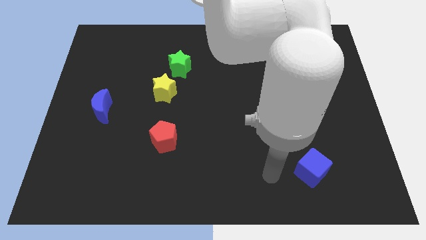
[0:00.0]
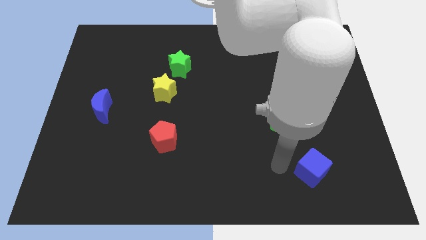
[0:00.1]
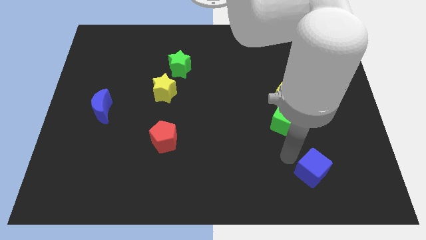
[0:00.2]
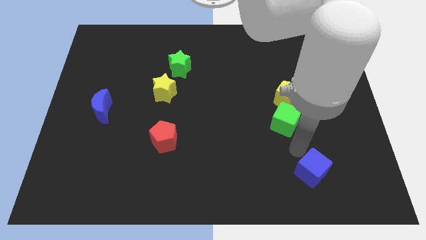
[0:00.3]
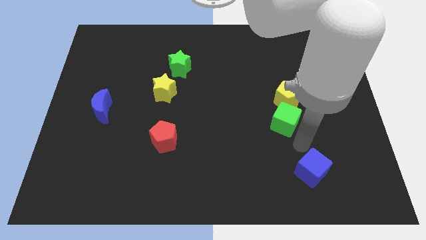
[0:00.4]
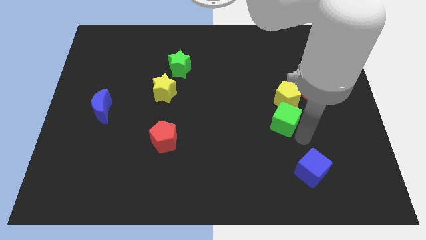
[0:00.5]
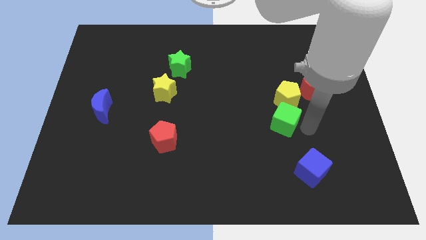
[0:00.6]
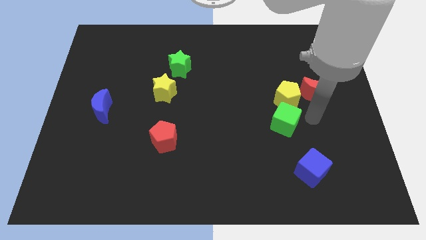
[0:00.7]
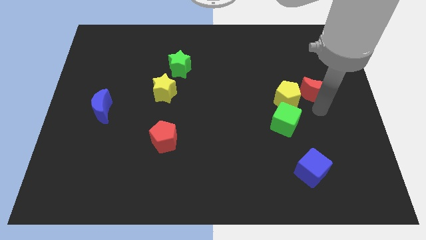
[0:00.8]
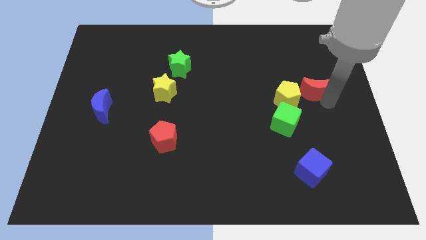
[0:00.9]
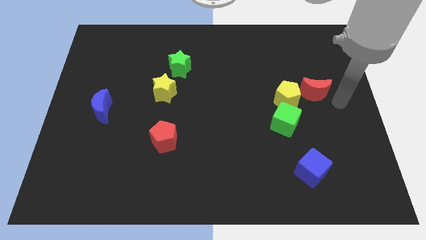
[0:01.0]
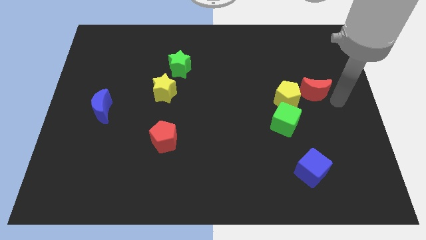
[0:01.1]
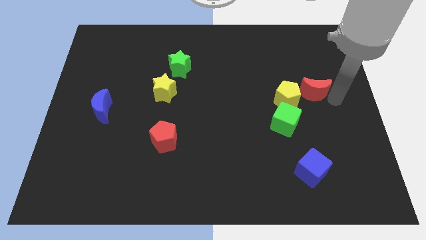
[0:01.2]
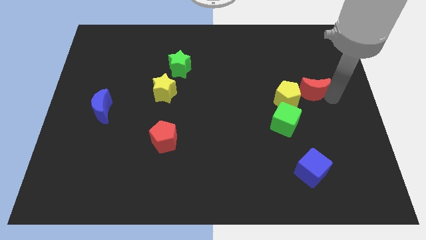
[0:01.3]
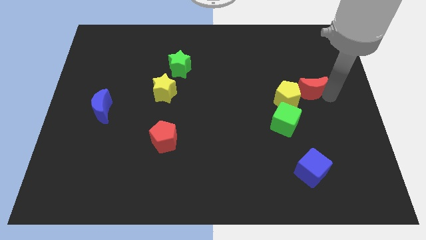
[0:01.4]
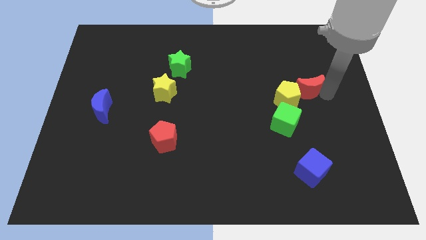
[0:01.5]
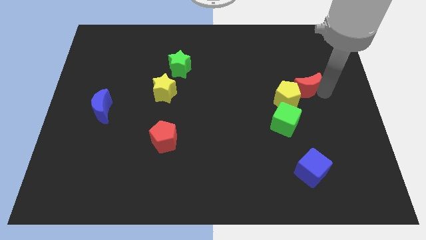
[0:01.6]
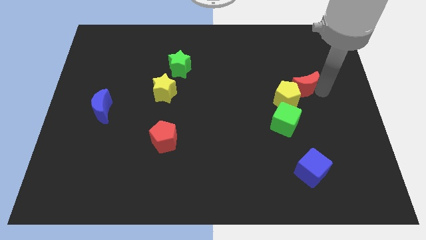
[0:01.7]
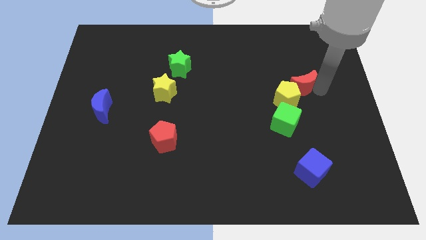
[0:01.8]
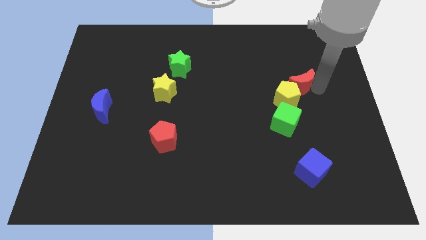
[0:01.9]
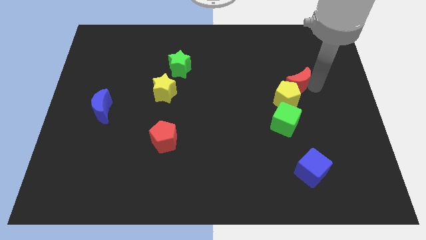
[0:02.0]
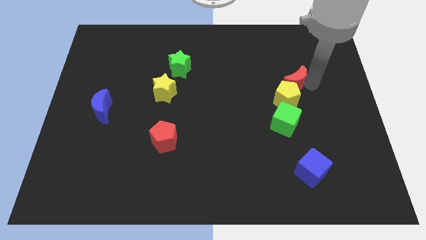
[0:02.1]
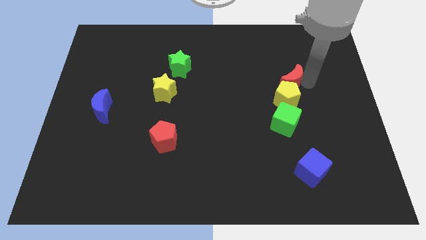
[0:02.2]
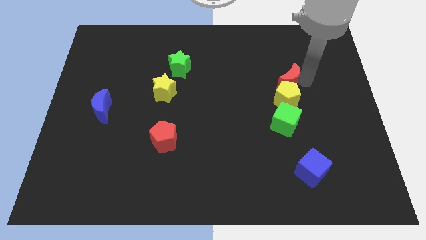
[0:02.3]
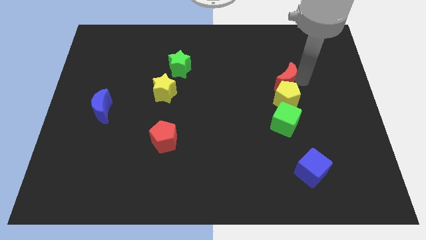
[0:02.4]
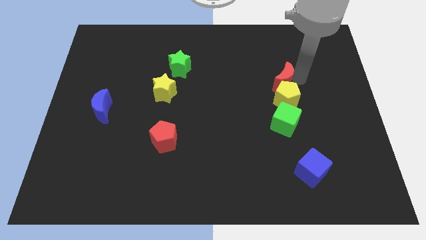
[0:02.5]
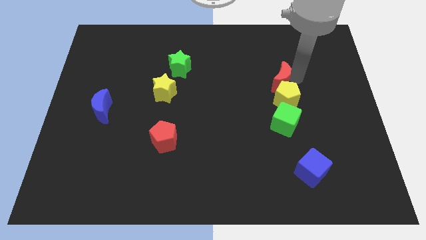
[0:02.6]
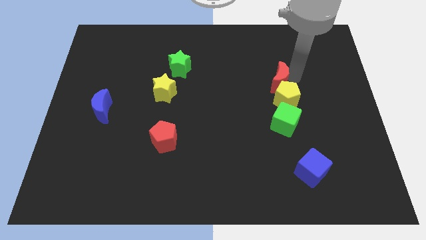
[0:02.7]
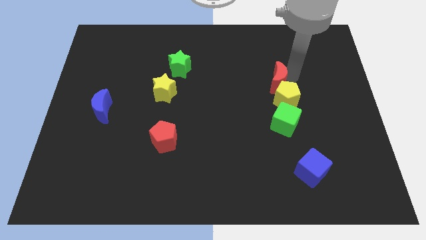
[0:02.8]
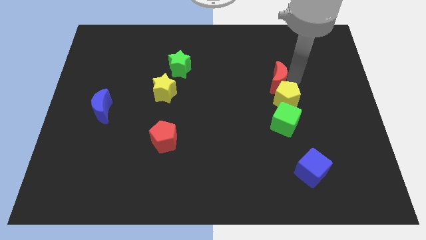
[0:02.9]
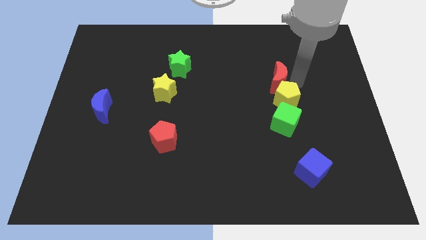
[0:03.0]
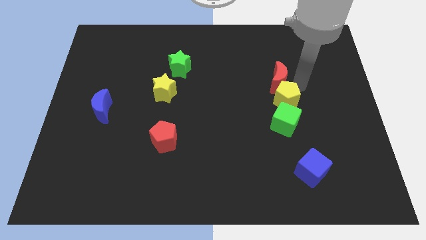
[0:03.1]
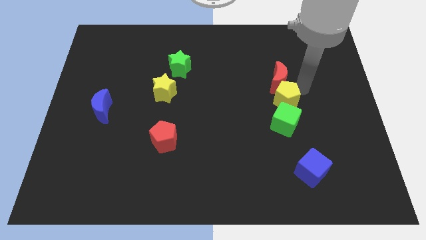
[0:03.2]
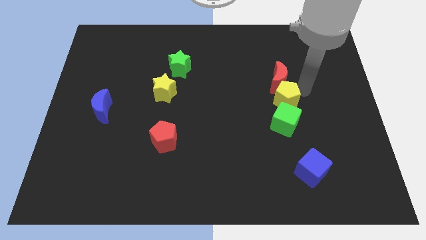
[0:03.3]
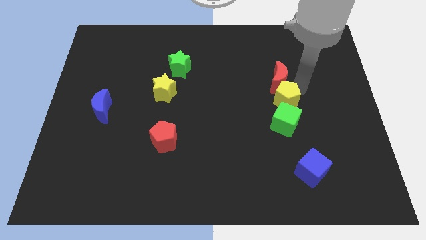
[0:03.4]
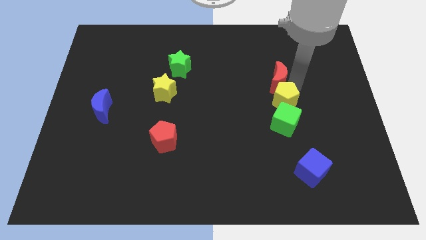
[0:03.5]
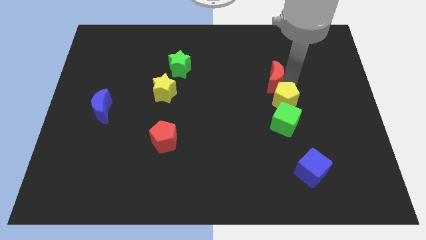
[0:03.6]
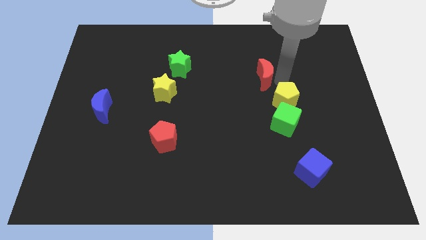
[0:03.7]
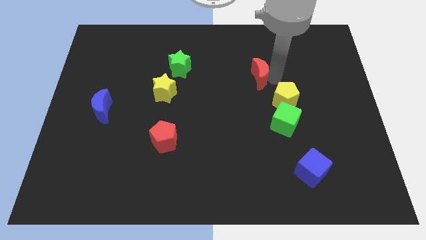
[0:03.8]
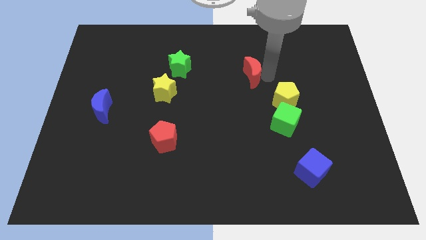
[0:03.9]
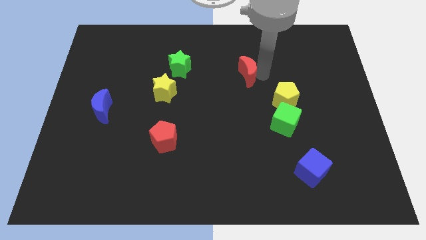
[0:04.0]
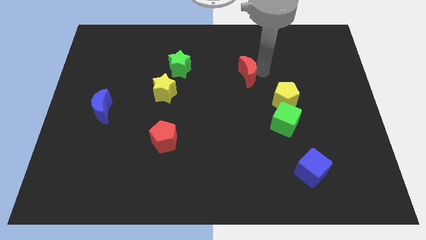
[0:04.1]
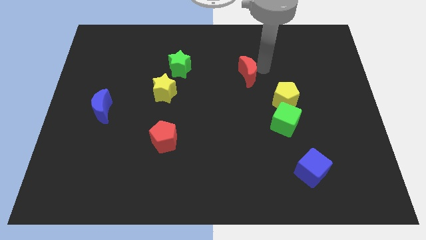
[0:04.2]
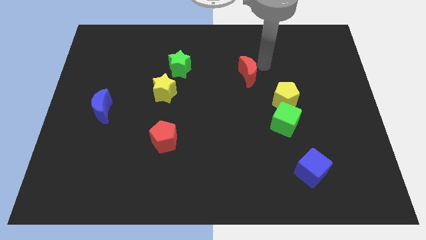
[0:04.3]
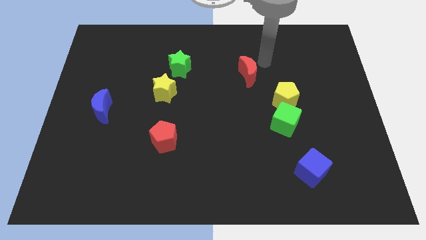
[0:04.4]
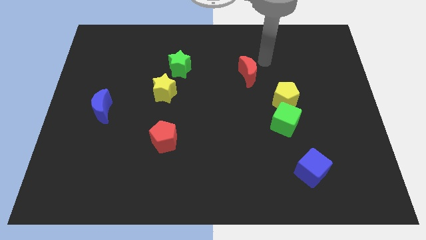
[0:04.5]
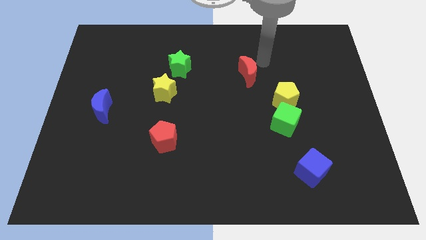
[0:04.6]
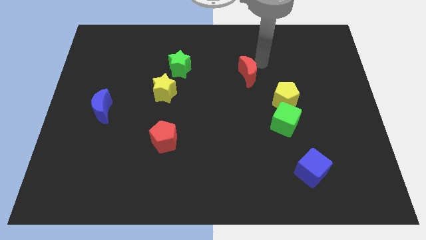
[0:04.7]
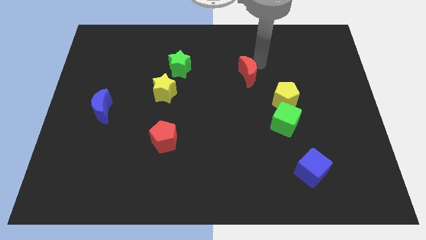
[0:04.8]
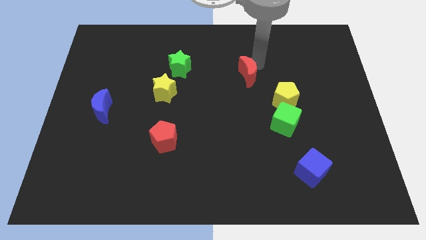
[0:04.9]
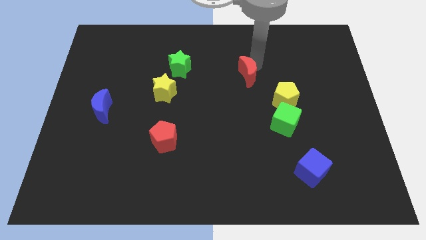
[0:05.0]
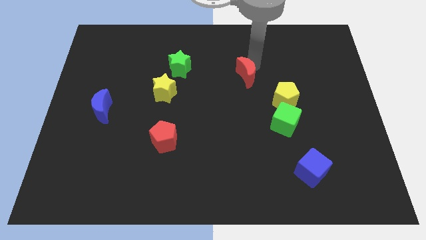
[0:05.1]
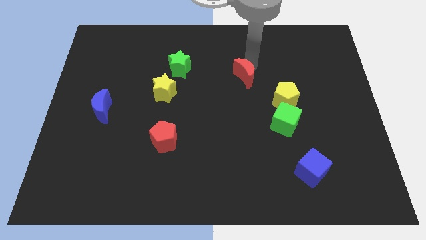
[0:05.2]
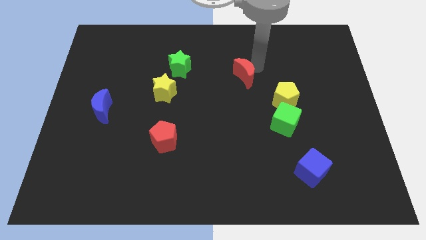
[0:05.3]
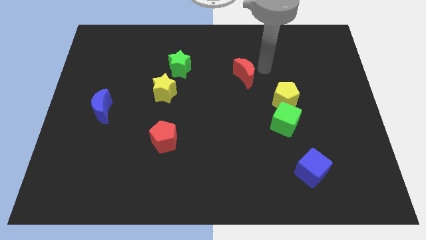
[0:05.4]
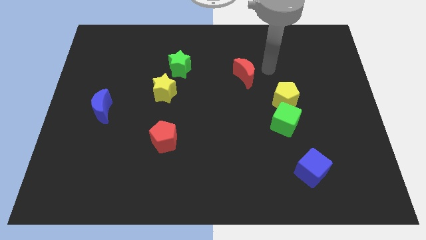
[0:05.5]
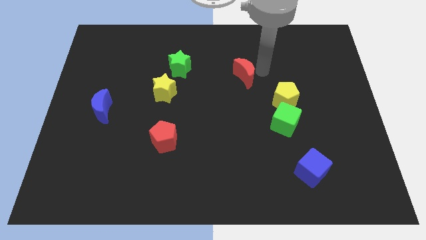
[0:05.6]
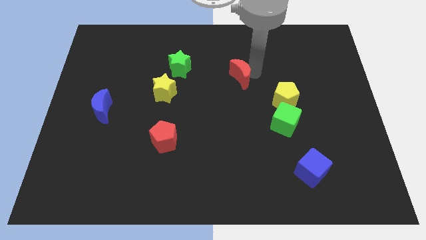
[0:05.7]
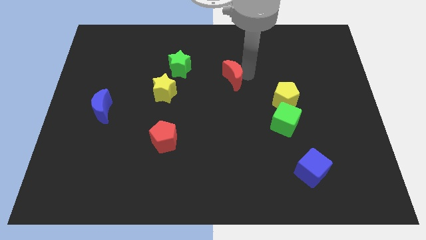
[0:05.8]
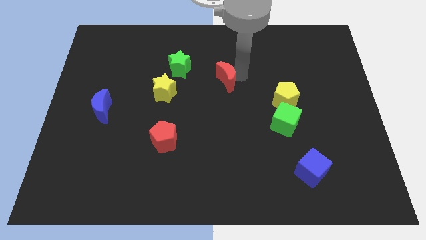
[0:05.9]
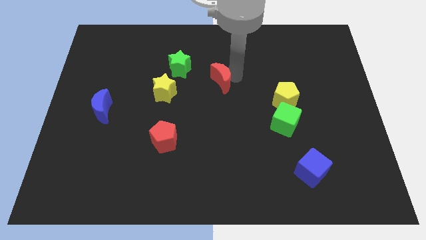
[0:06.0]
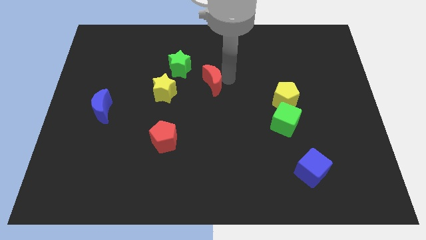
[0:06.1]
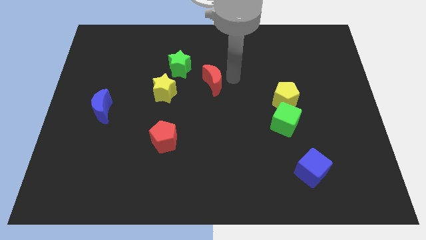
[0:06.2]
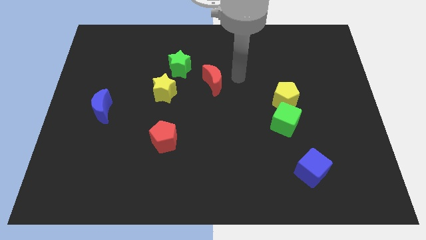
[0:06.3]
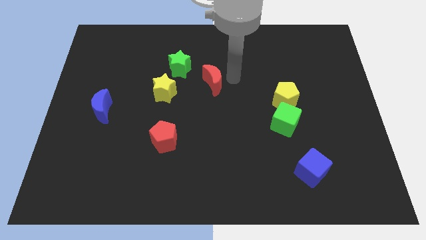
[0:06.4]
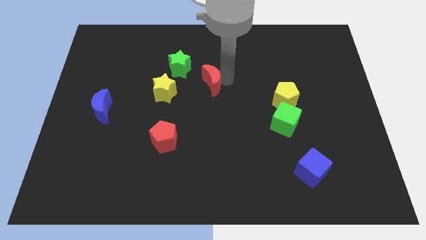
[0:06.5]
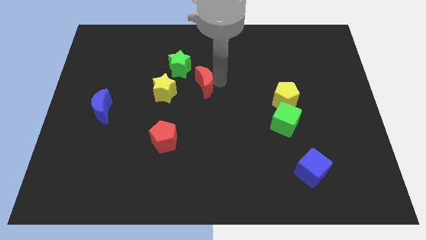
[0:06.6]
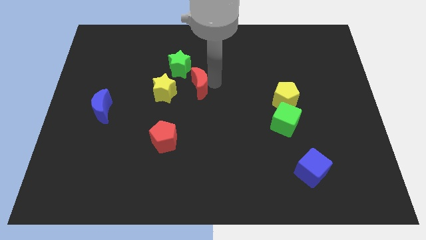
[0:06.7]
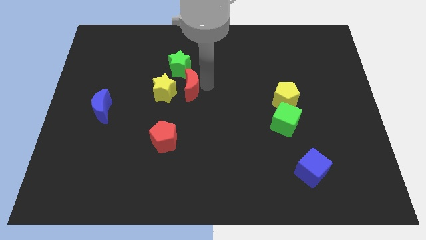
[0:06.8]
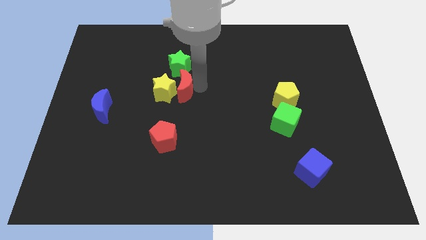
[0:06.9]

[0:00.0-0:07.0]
slide the red moon close to the yellow star
